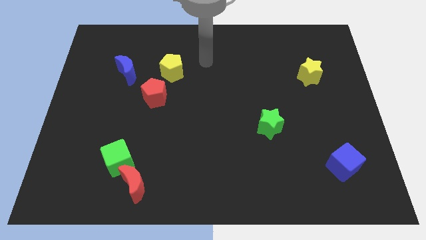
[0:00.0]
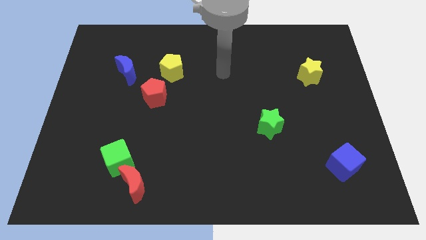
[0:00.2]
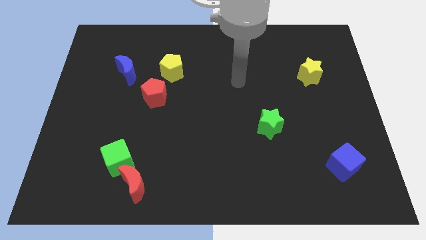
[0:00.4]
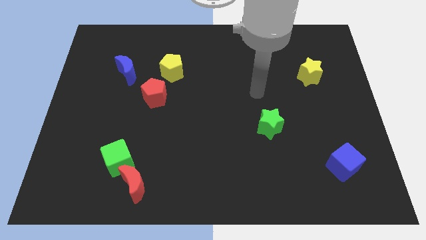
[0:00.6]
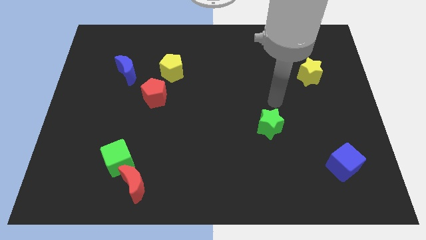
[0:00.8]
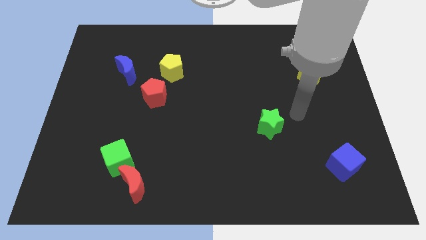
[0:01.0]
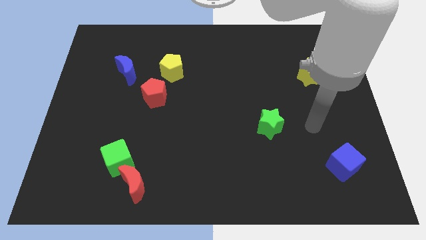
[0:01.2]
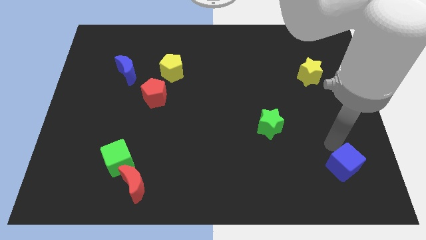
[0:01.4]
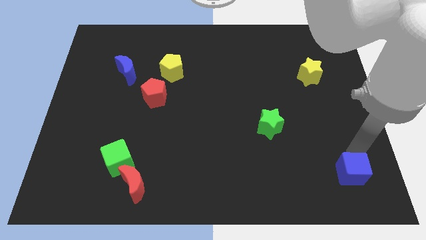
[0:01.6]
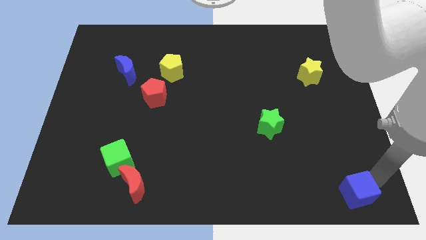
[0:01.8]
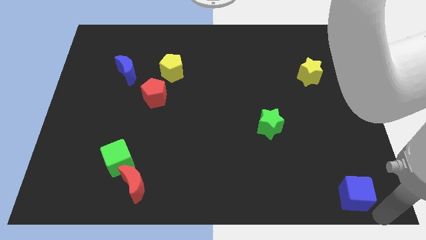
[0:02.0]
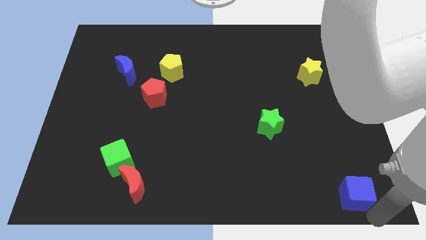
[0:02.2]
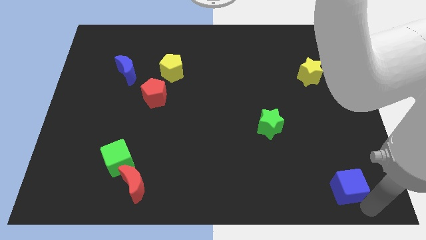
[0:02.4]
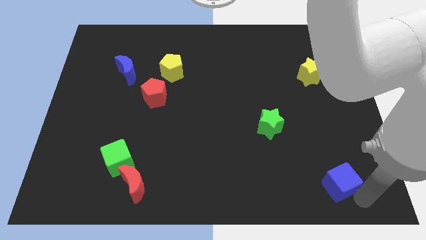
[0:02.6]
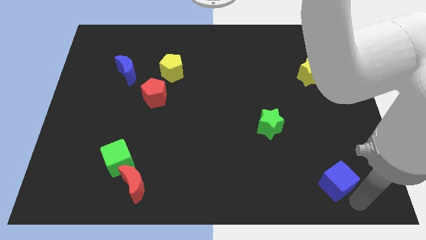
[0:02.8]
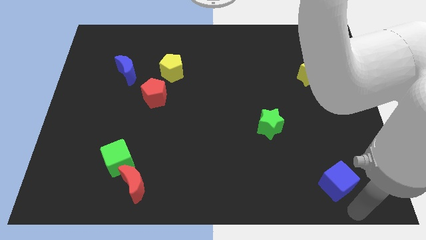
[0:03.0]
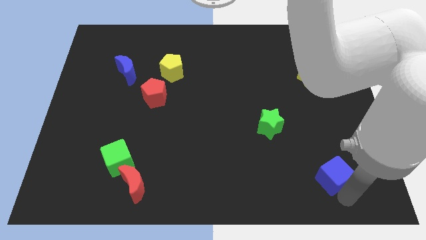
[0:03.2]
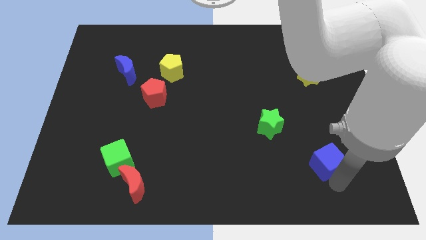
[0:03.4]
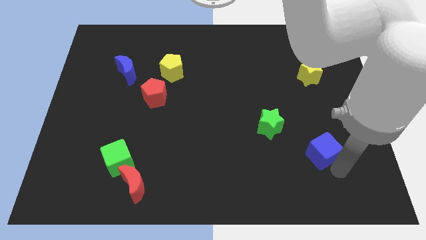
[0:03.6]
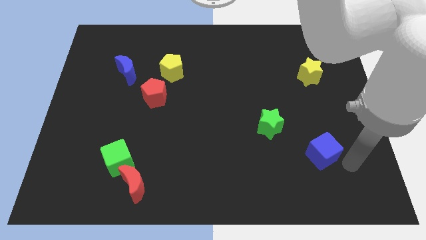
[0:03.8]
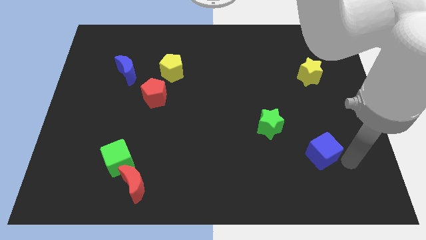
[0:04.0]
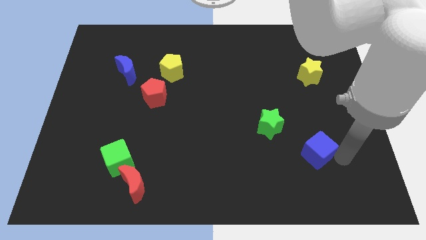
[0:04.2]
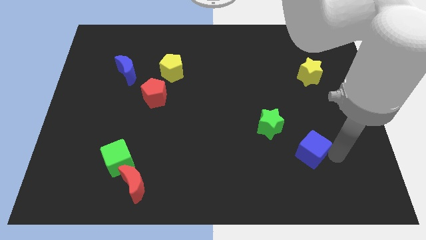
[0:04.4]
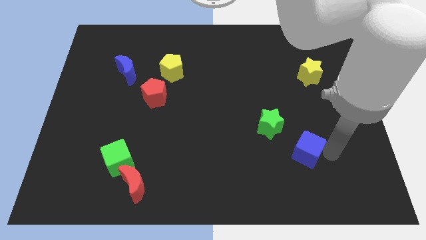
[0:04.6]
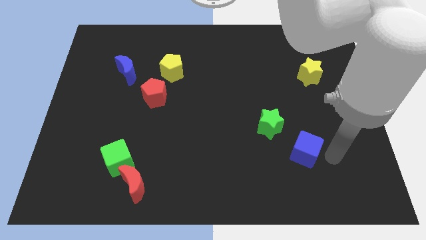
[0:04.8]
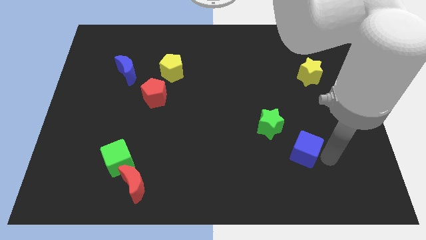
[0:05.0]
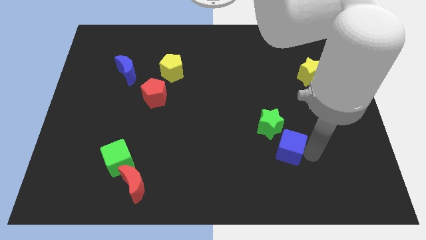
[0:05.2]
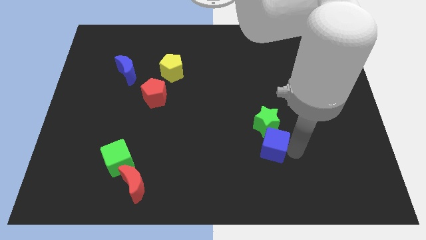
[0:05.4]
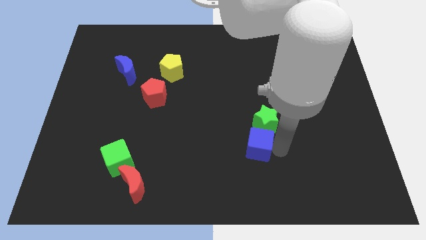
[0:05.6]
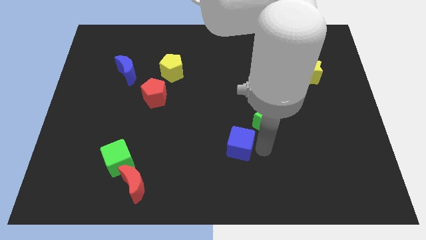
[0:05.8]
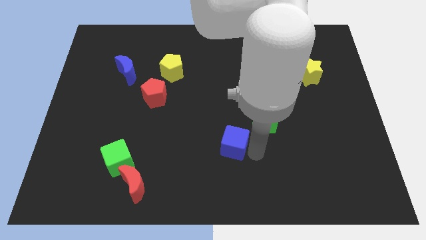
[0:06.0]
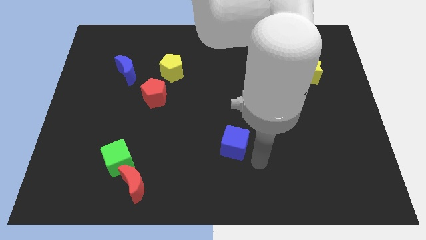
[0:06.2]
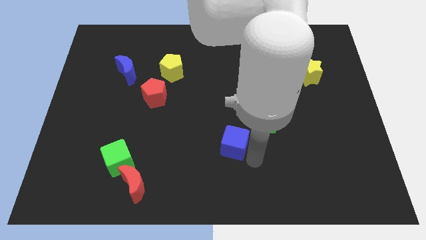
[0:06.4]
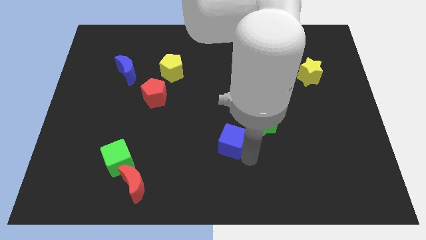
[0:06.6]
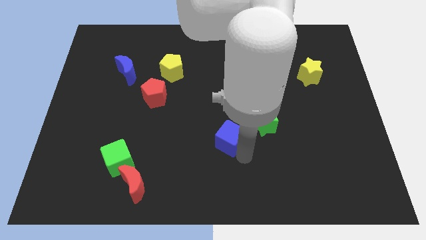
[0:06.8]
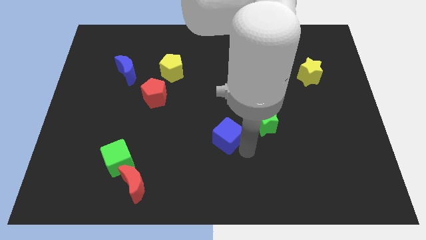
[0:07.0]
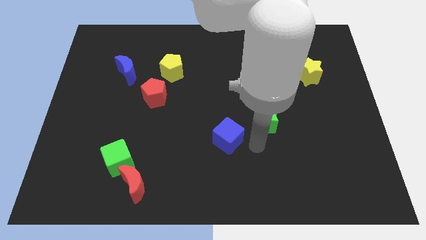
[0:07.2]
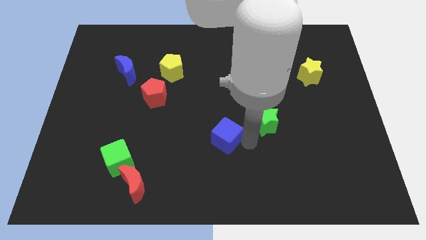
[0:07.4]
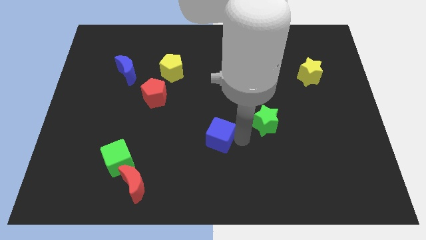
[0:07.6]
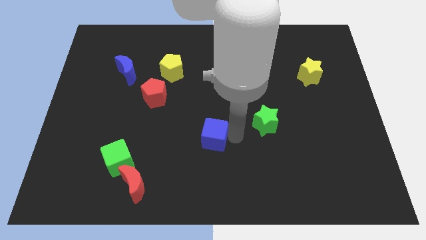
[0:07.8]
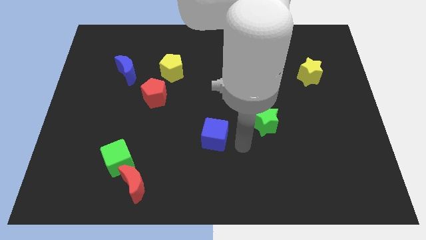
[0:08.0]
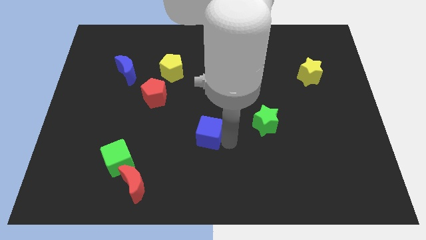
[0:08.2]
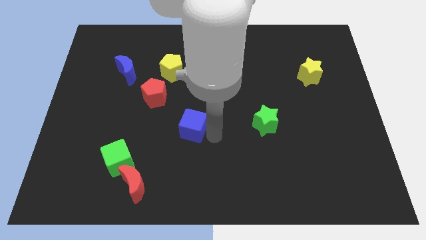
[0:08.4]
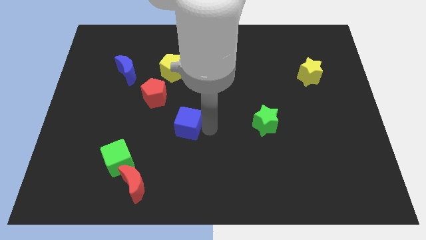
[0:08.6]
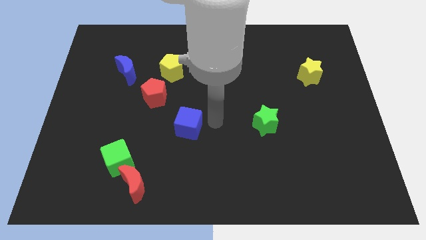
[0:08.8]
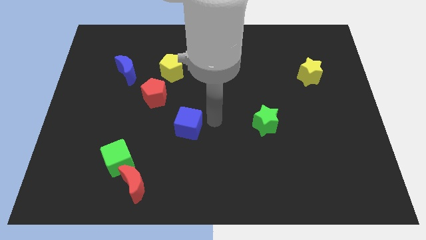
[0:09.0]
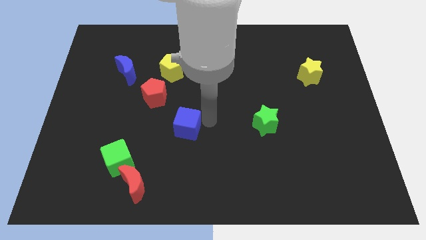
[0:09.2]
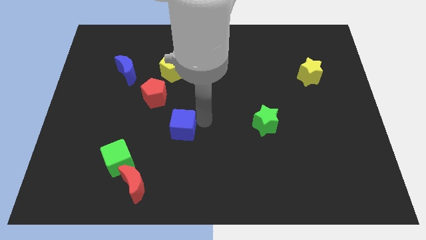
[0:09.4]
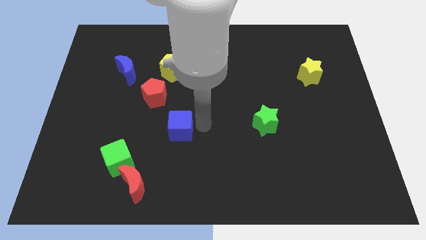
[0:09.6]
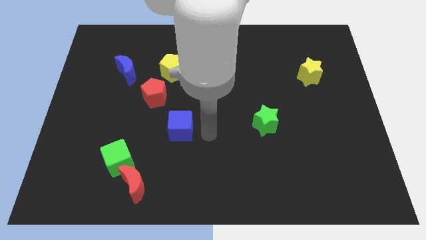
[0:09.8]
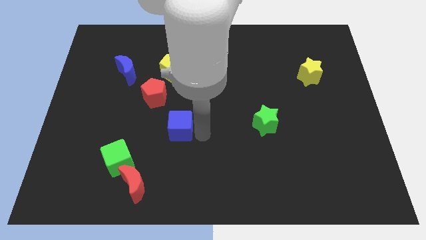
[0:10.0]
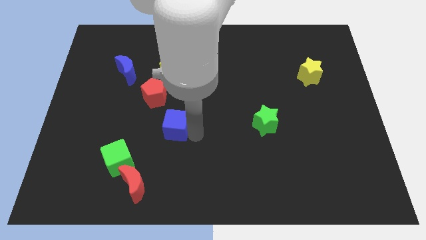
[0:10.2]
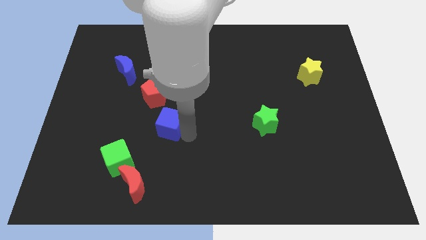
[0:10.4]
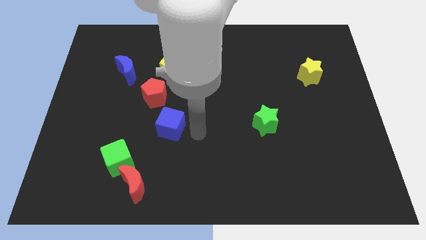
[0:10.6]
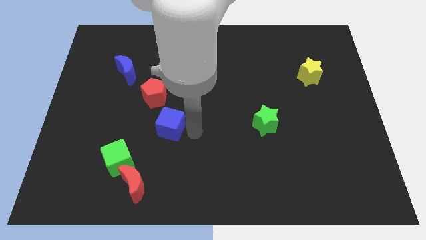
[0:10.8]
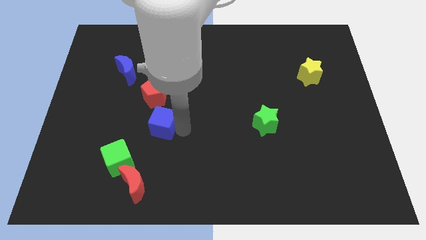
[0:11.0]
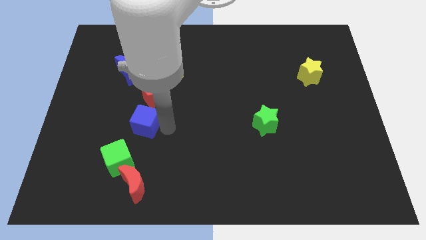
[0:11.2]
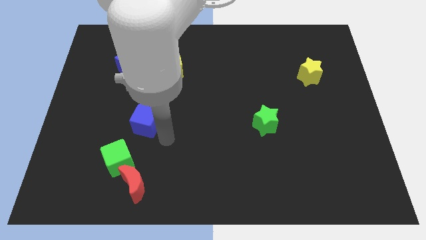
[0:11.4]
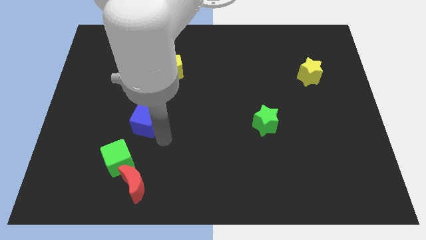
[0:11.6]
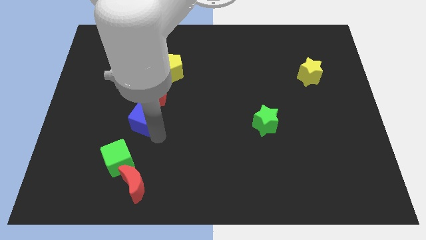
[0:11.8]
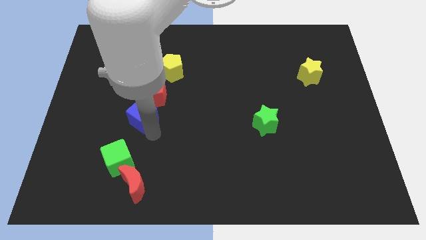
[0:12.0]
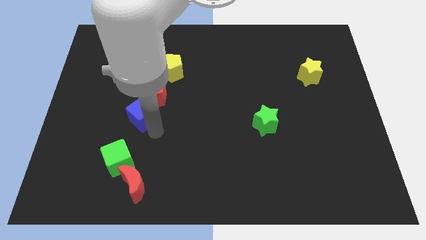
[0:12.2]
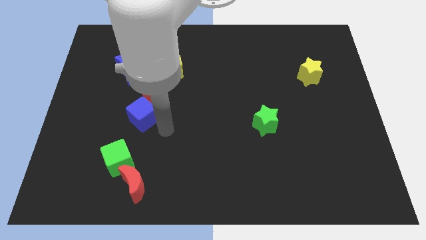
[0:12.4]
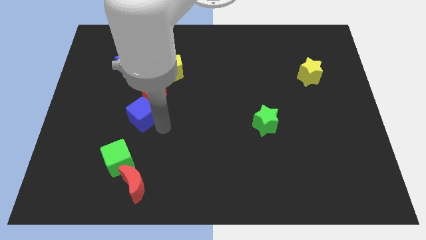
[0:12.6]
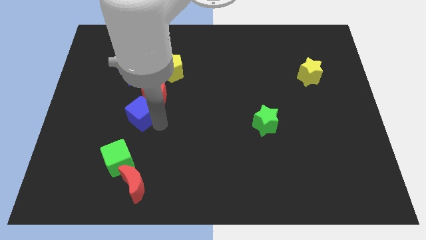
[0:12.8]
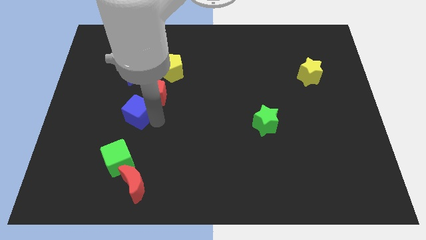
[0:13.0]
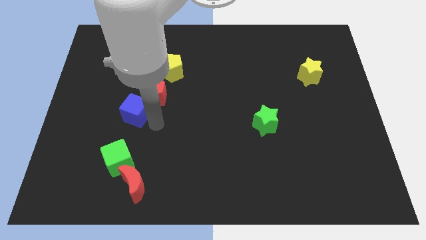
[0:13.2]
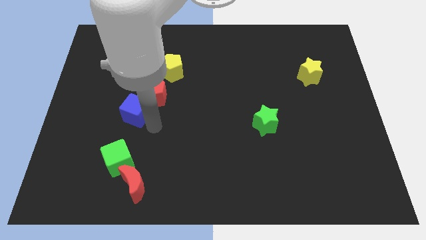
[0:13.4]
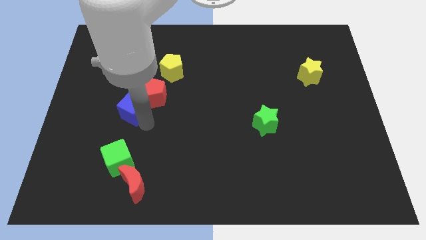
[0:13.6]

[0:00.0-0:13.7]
move the blue cube to the left side of the red pentagon

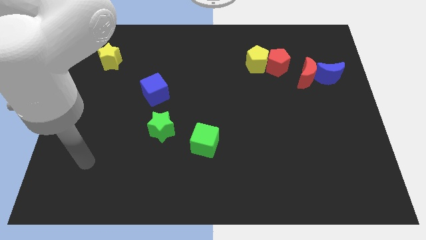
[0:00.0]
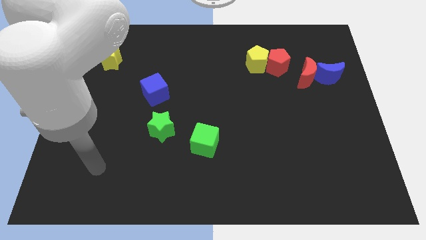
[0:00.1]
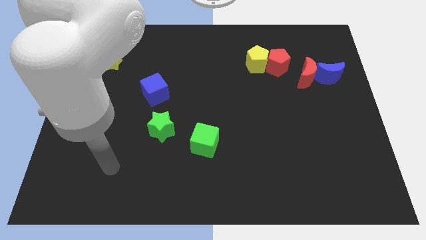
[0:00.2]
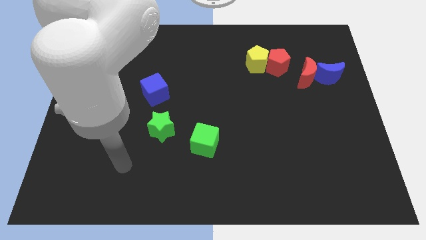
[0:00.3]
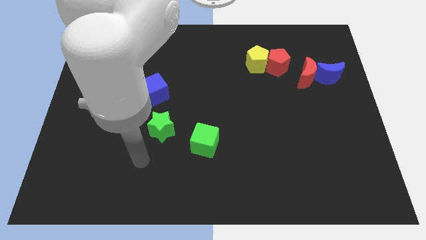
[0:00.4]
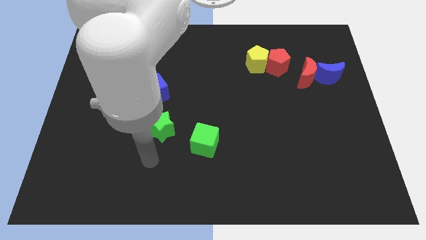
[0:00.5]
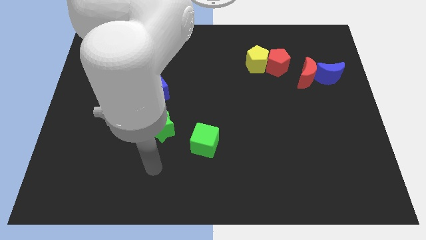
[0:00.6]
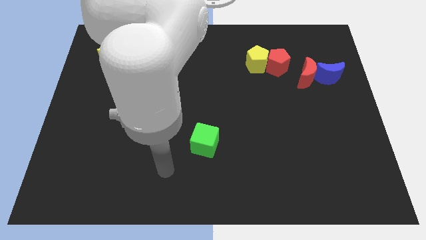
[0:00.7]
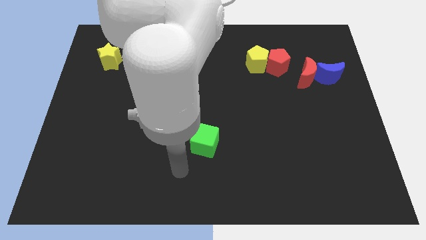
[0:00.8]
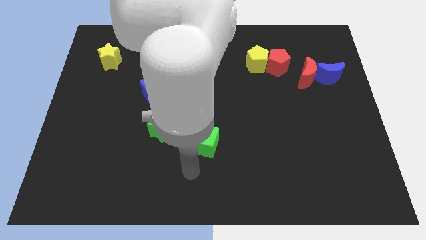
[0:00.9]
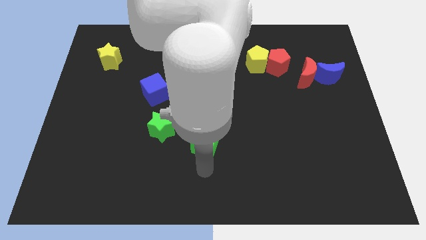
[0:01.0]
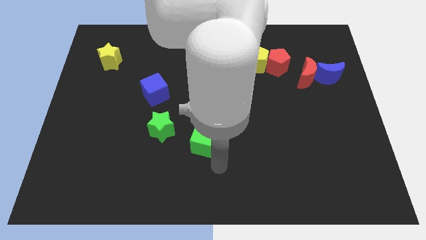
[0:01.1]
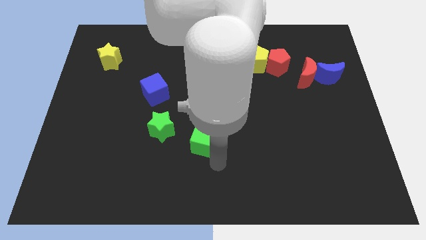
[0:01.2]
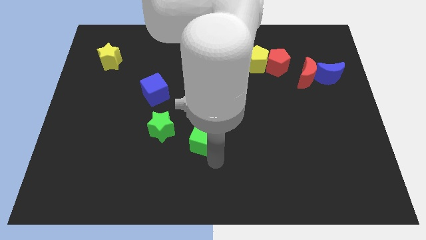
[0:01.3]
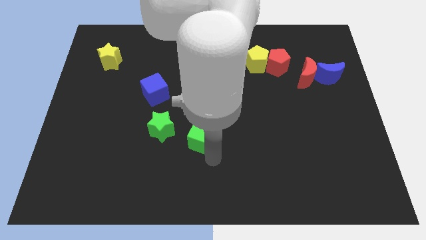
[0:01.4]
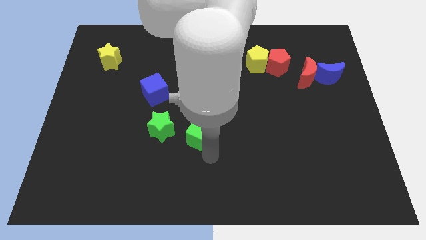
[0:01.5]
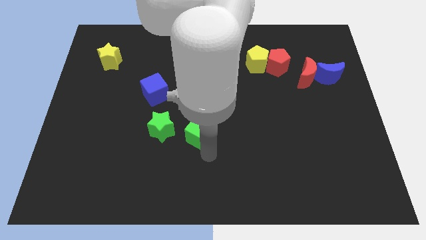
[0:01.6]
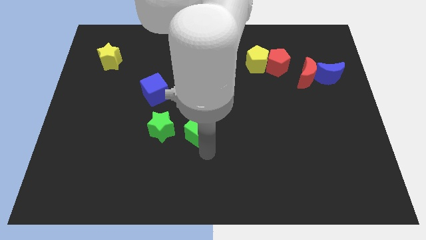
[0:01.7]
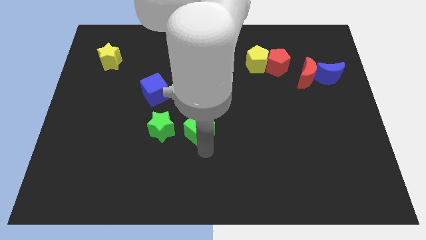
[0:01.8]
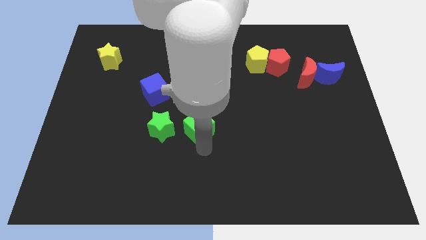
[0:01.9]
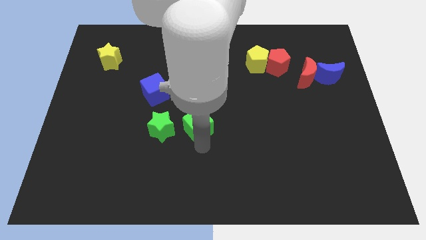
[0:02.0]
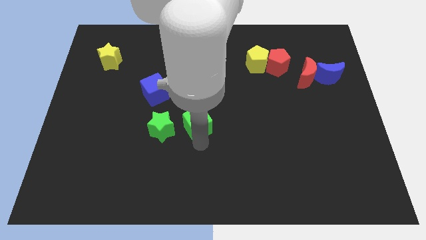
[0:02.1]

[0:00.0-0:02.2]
put the green cube to the top right side of the green star
